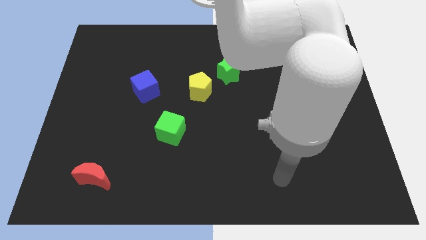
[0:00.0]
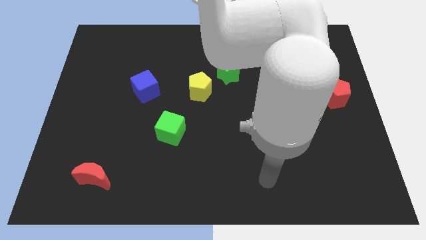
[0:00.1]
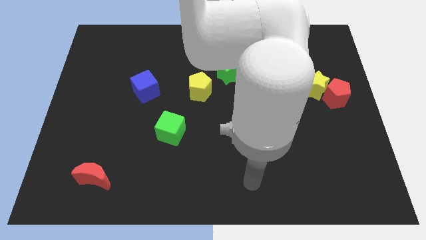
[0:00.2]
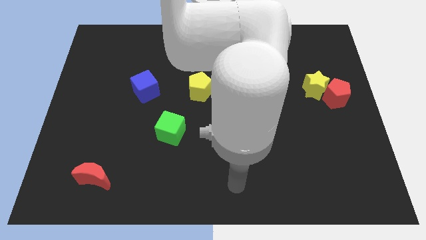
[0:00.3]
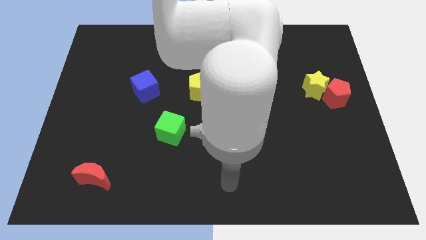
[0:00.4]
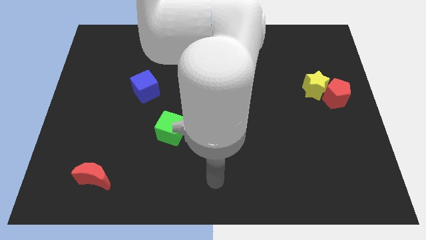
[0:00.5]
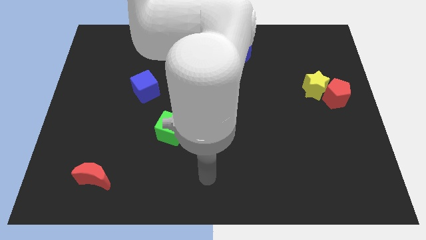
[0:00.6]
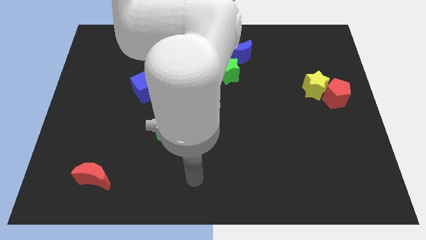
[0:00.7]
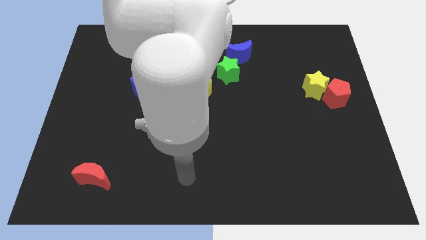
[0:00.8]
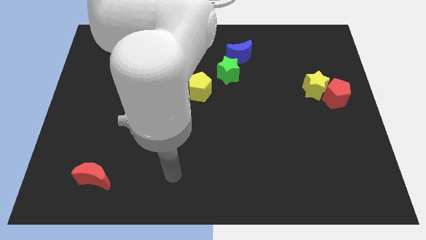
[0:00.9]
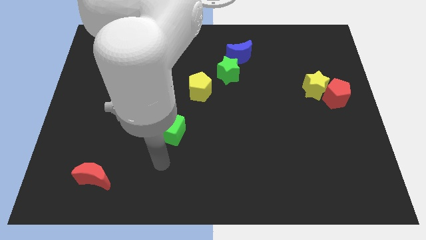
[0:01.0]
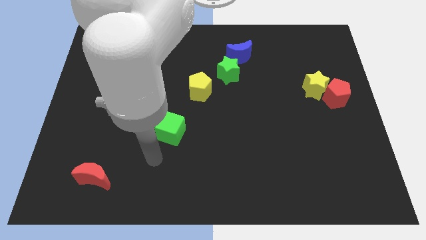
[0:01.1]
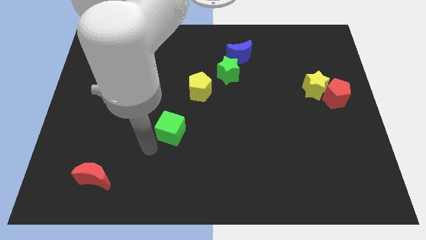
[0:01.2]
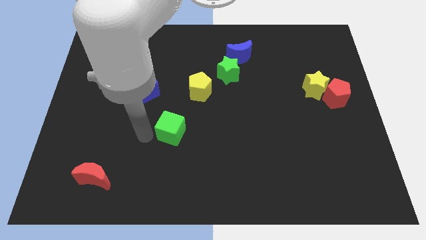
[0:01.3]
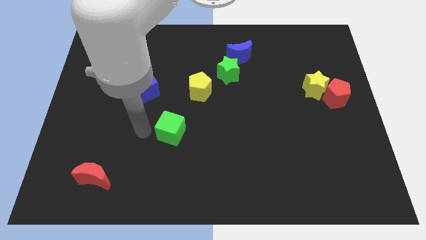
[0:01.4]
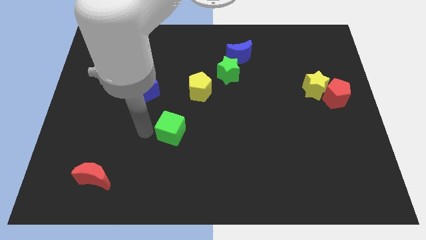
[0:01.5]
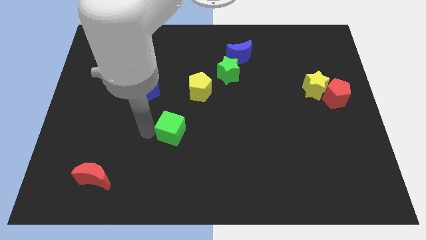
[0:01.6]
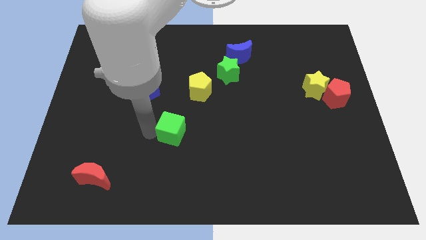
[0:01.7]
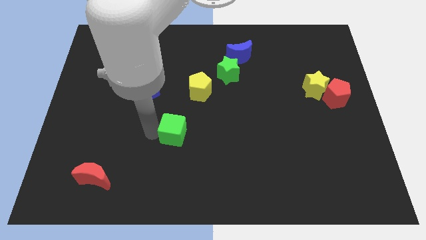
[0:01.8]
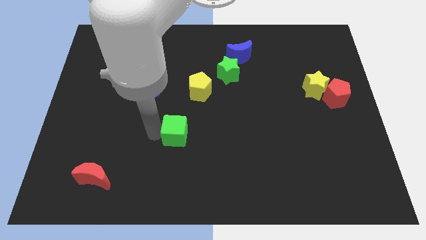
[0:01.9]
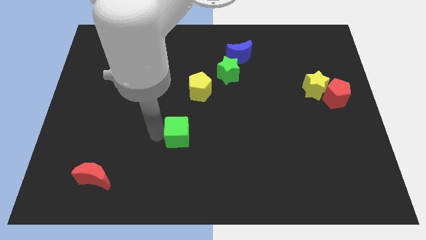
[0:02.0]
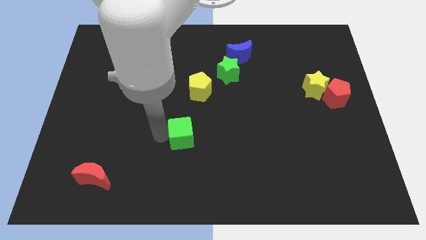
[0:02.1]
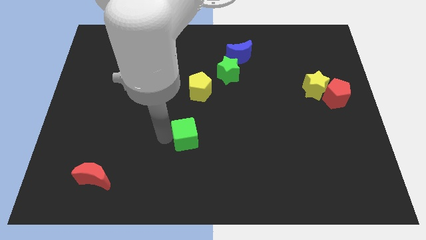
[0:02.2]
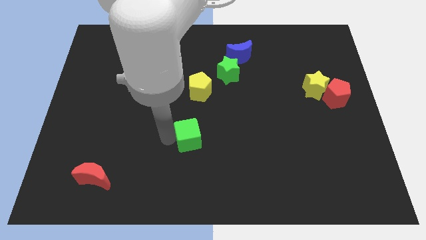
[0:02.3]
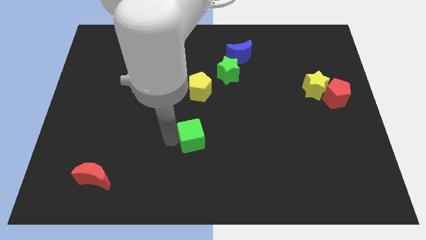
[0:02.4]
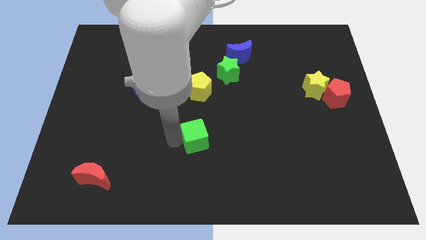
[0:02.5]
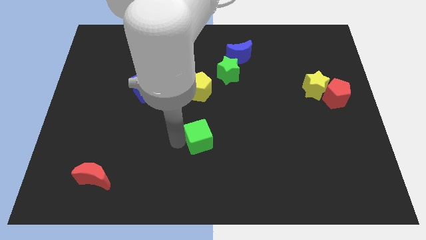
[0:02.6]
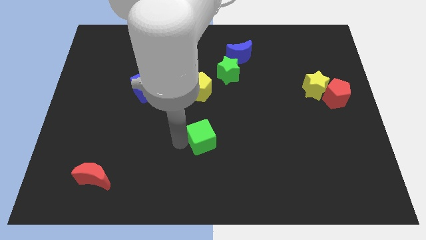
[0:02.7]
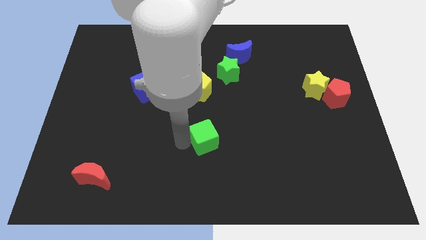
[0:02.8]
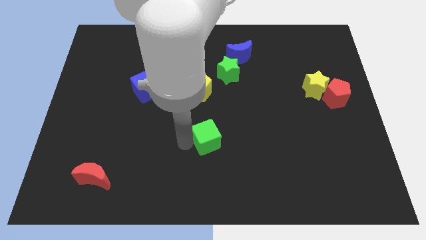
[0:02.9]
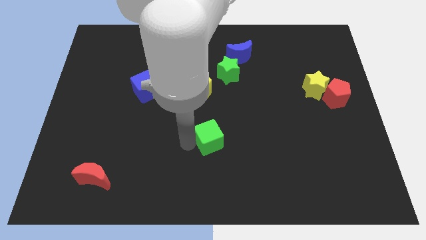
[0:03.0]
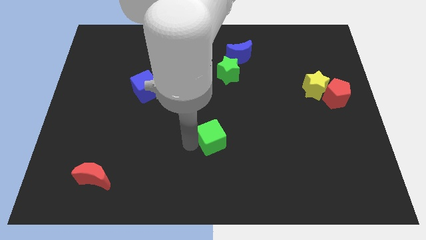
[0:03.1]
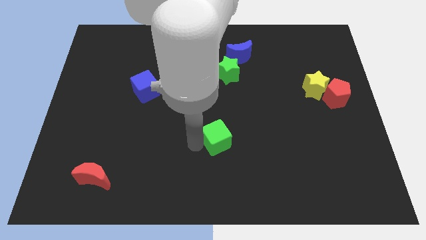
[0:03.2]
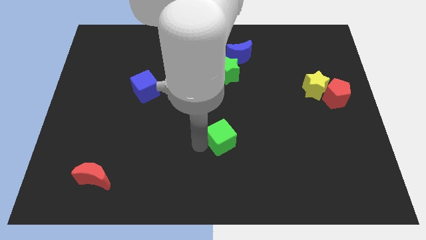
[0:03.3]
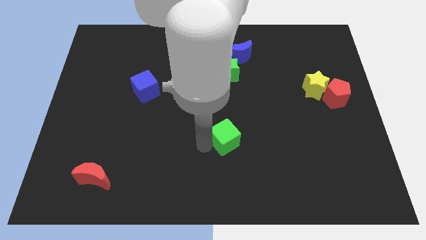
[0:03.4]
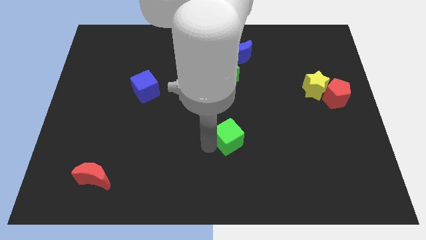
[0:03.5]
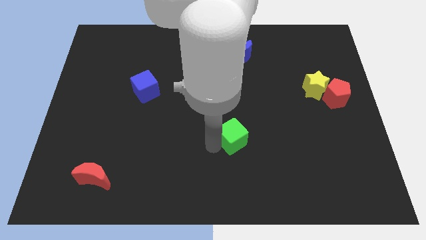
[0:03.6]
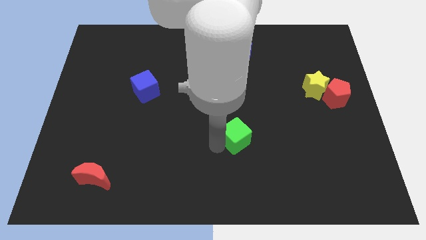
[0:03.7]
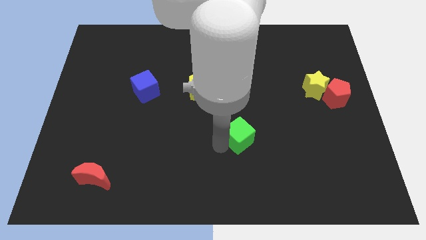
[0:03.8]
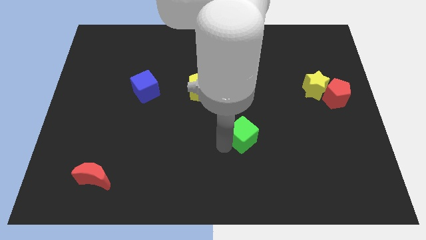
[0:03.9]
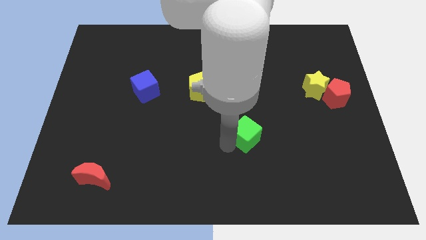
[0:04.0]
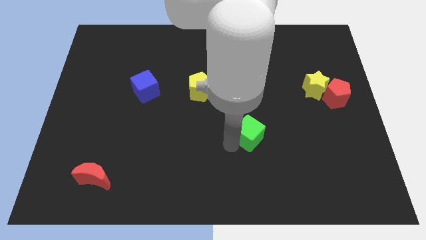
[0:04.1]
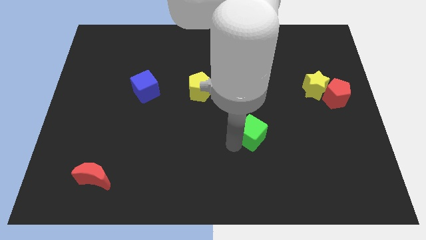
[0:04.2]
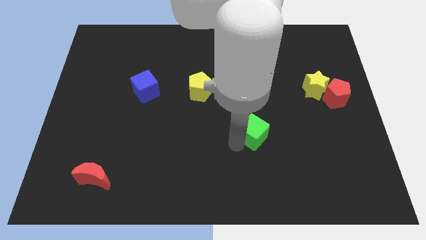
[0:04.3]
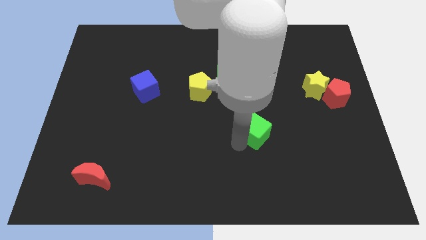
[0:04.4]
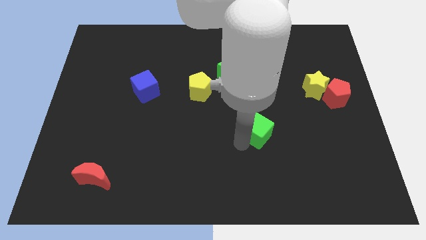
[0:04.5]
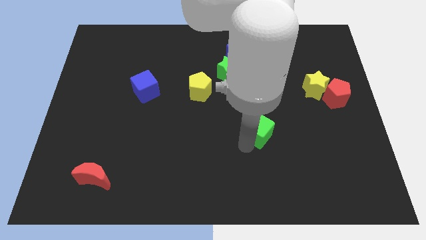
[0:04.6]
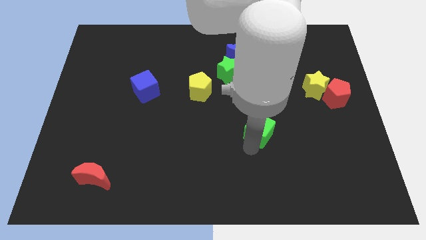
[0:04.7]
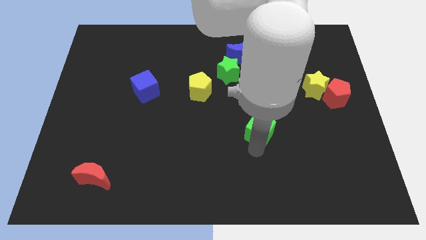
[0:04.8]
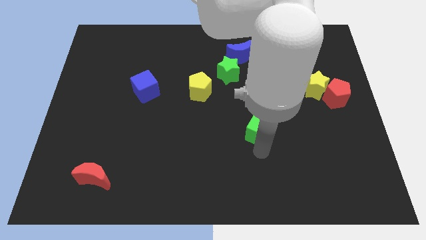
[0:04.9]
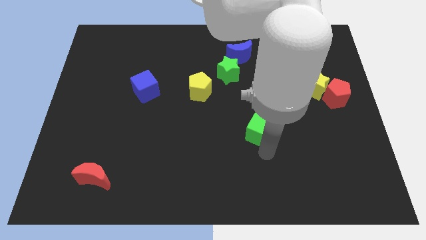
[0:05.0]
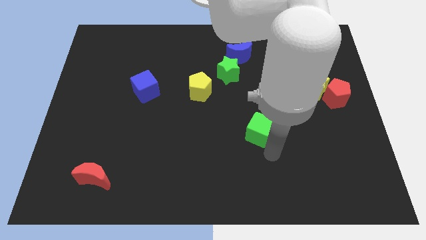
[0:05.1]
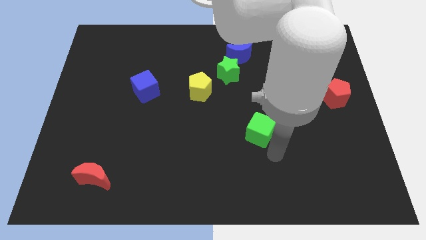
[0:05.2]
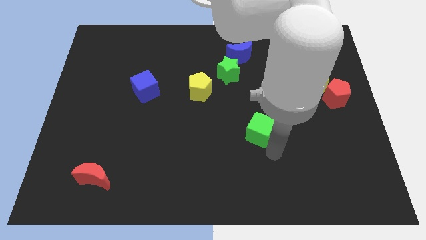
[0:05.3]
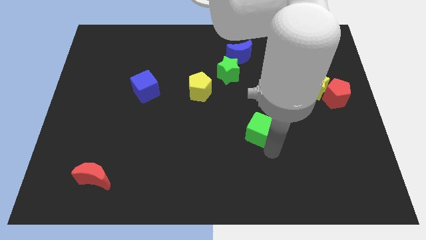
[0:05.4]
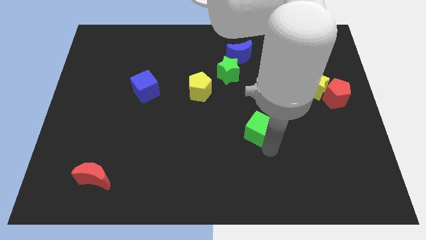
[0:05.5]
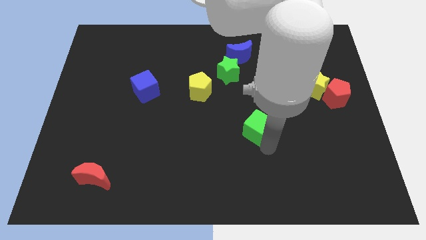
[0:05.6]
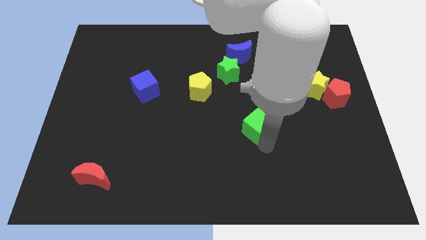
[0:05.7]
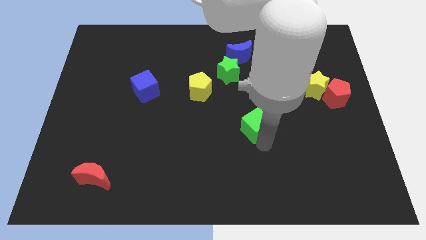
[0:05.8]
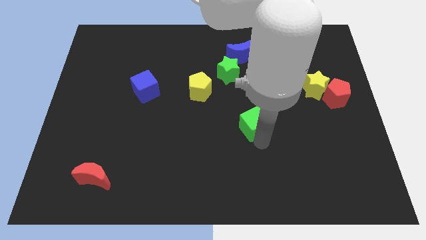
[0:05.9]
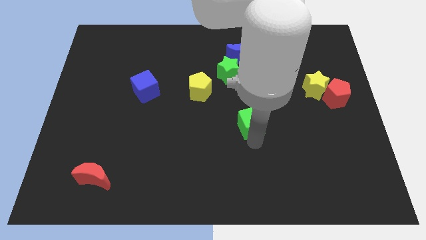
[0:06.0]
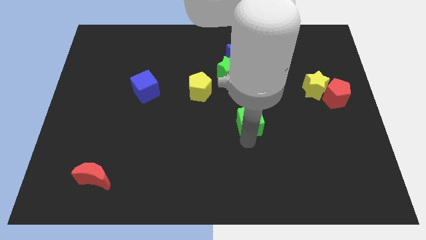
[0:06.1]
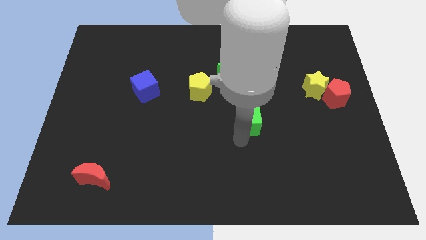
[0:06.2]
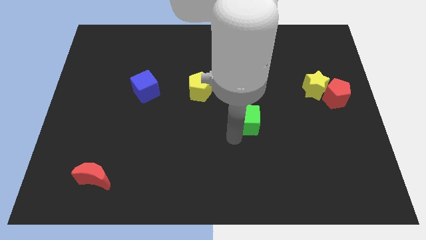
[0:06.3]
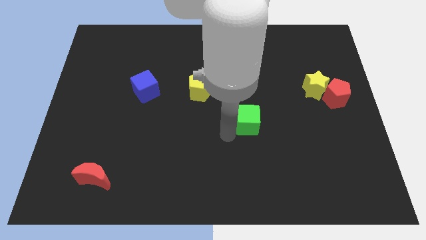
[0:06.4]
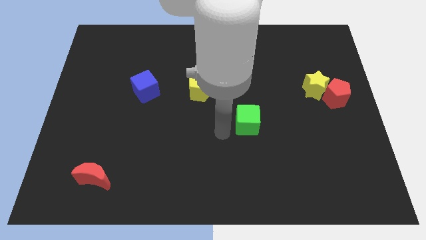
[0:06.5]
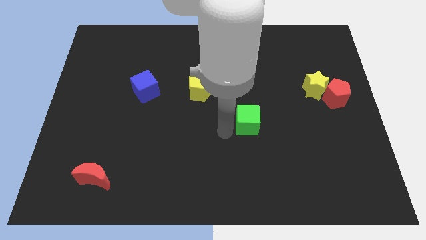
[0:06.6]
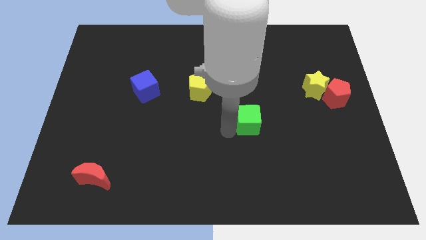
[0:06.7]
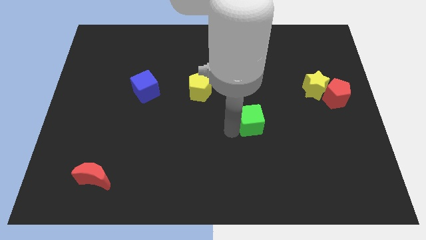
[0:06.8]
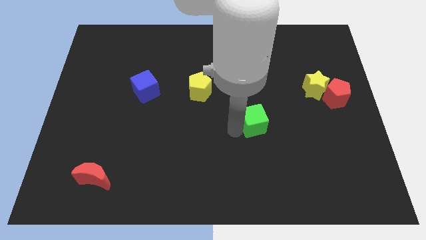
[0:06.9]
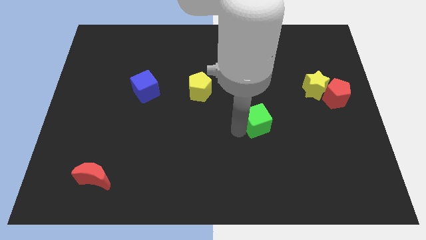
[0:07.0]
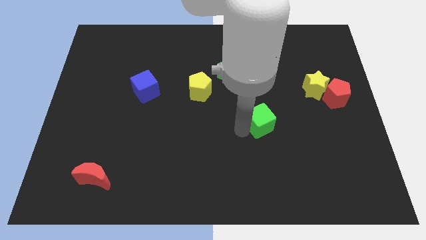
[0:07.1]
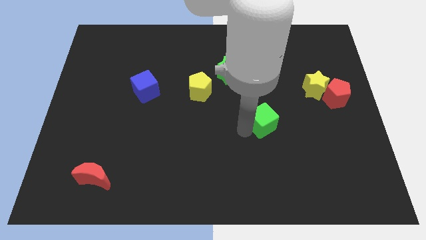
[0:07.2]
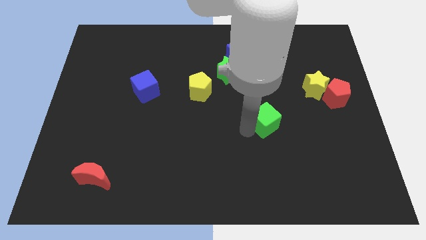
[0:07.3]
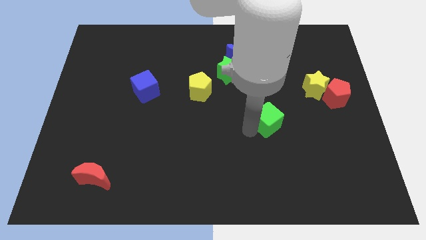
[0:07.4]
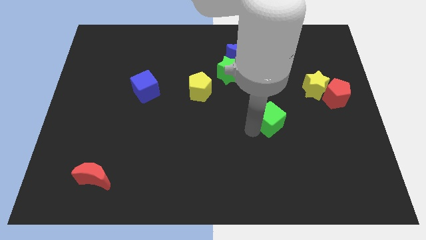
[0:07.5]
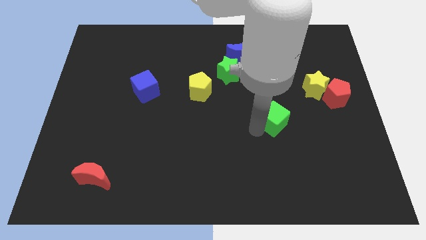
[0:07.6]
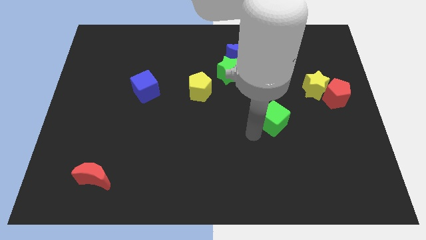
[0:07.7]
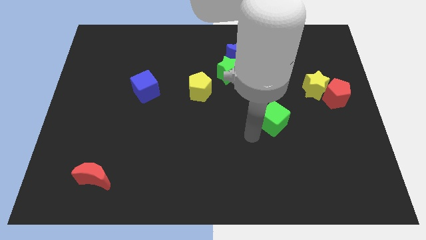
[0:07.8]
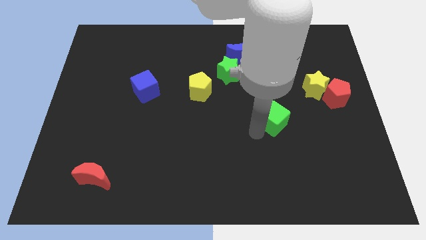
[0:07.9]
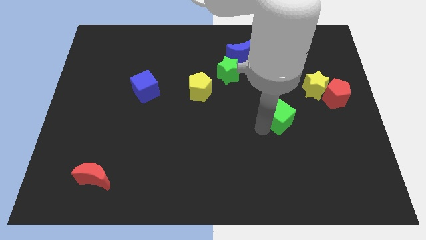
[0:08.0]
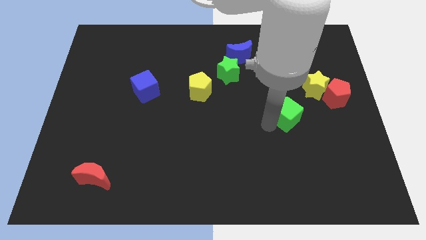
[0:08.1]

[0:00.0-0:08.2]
push the green cube to the bottom left side of the yellow star
